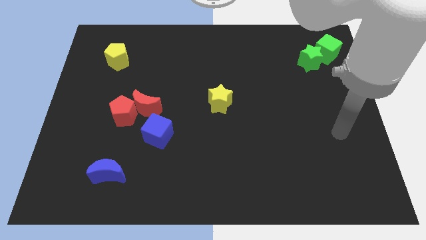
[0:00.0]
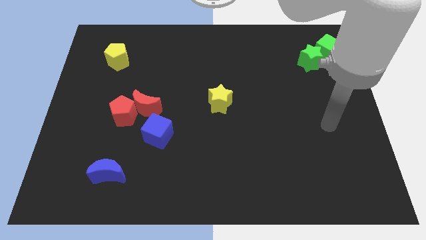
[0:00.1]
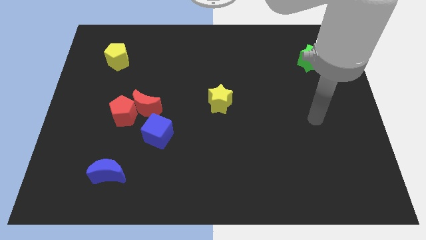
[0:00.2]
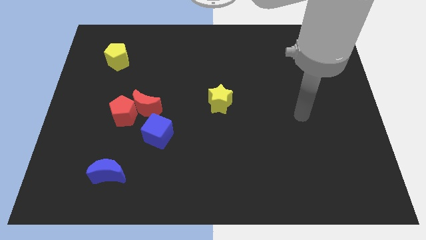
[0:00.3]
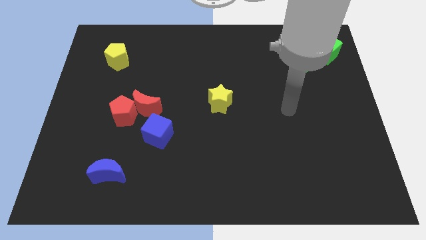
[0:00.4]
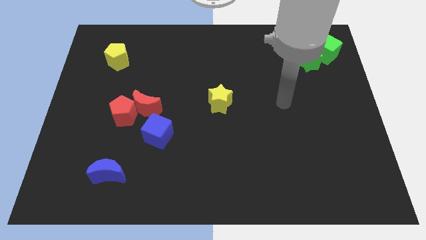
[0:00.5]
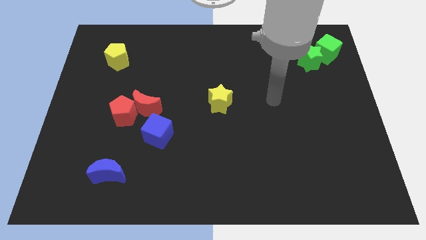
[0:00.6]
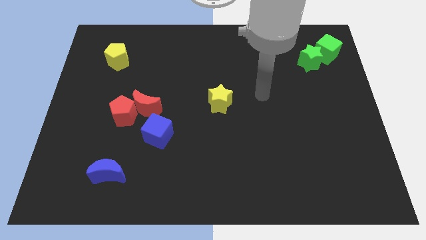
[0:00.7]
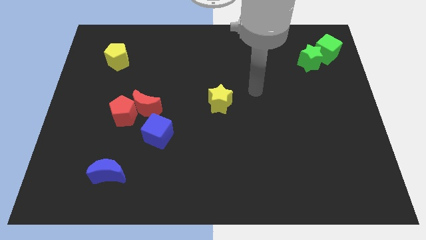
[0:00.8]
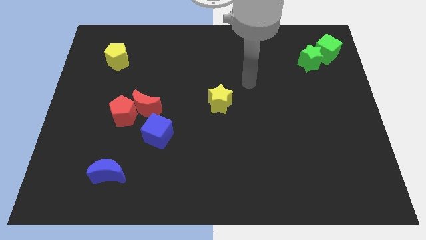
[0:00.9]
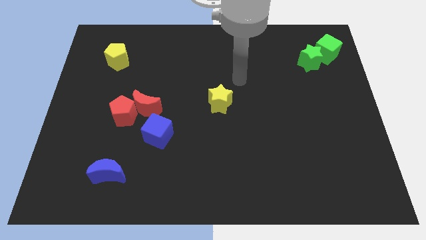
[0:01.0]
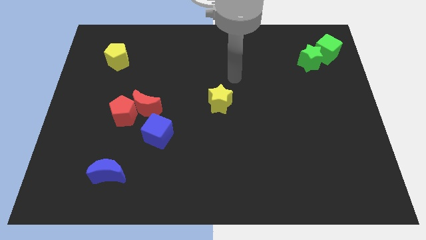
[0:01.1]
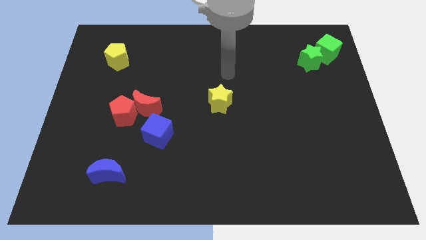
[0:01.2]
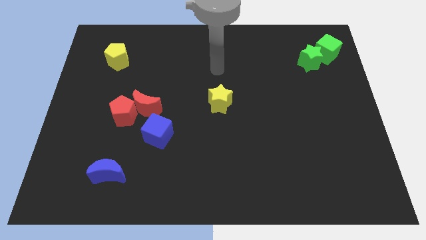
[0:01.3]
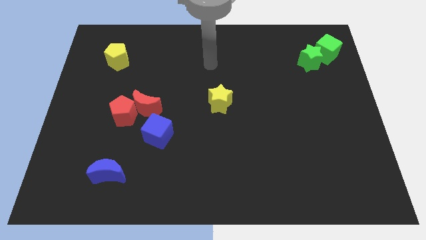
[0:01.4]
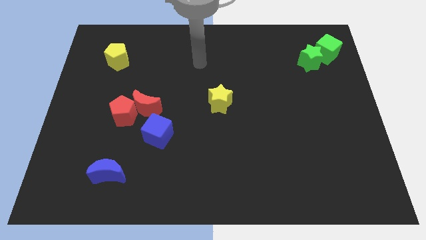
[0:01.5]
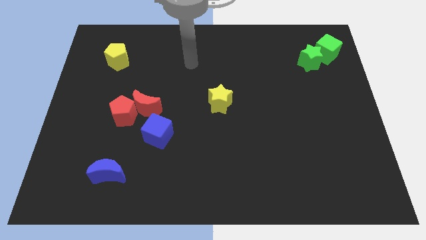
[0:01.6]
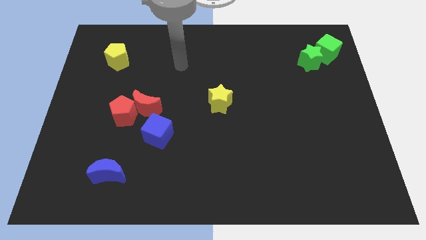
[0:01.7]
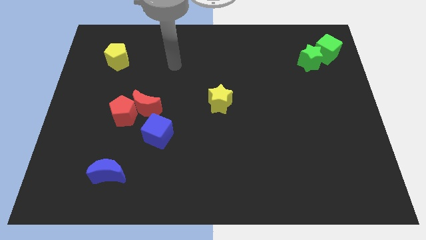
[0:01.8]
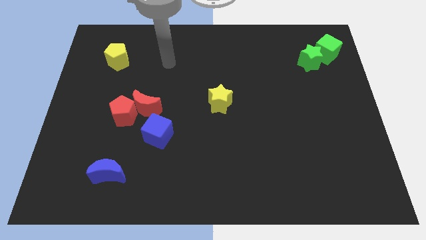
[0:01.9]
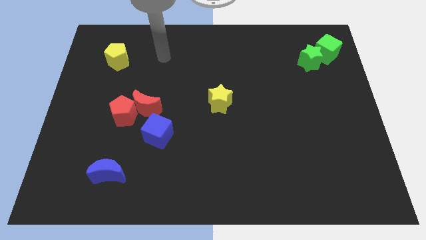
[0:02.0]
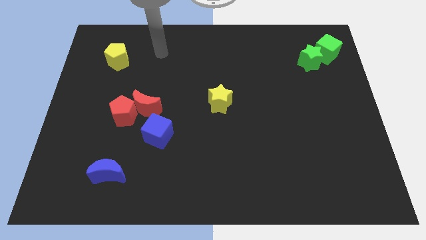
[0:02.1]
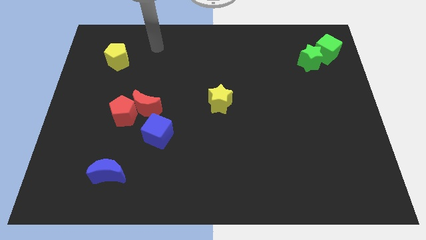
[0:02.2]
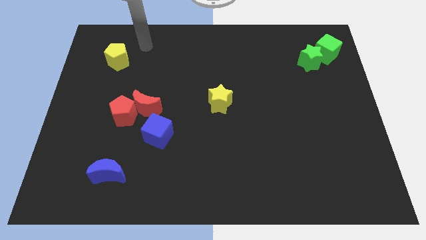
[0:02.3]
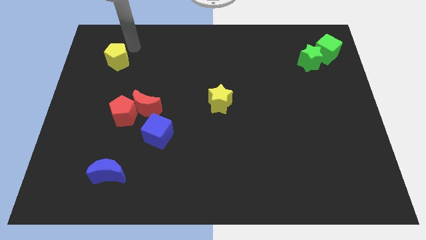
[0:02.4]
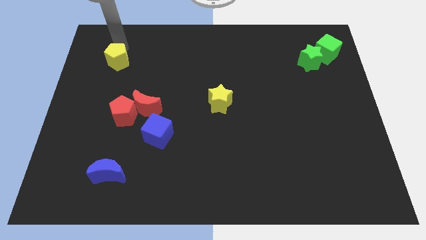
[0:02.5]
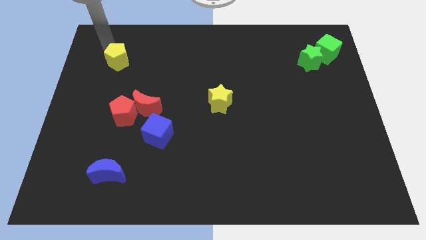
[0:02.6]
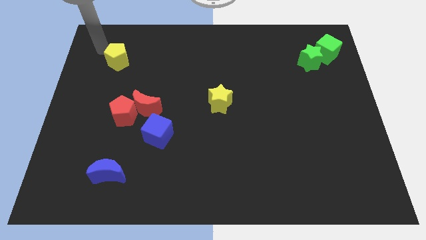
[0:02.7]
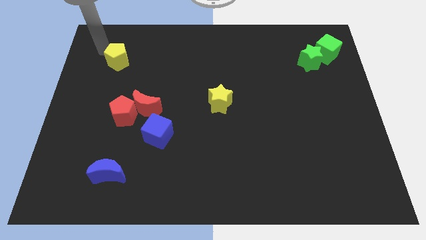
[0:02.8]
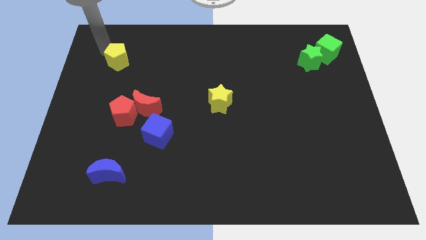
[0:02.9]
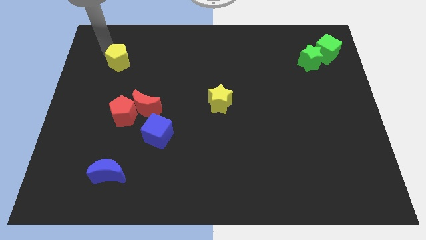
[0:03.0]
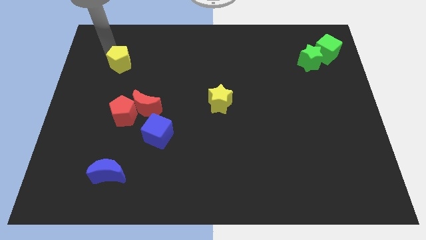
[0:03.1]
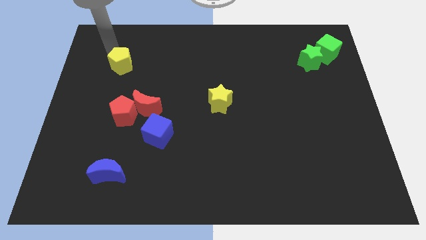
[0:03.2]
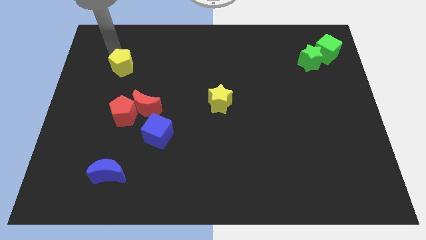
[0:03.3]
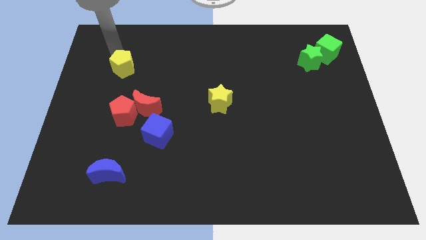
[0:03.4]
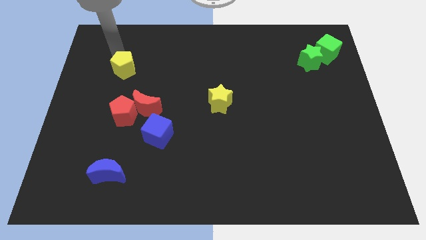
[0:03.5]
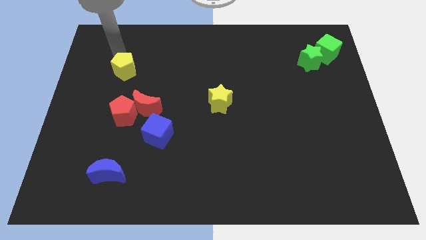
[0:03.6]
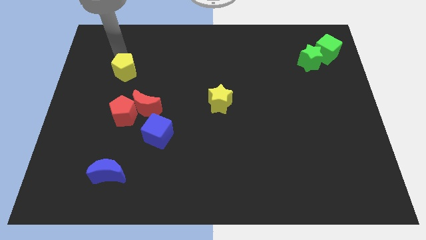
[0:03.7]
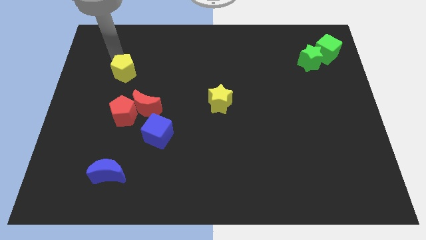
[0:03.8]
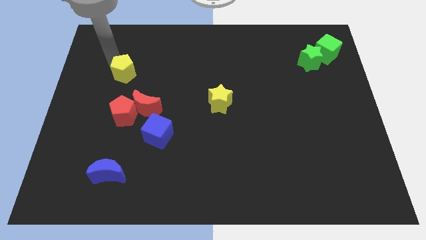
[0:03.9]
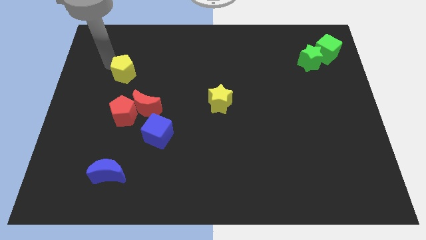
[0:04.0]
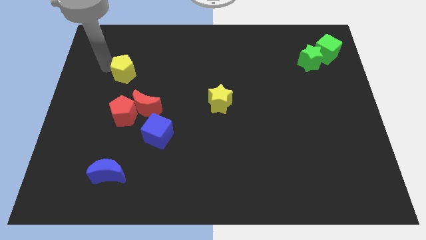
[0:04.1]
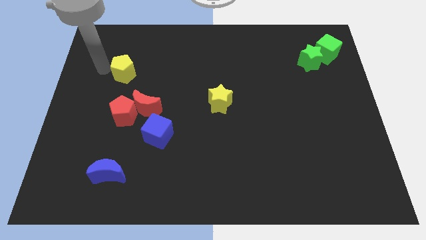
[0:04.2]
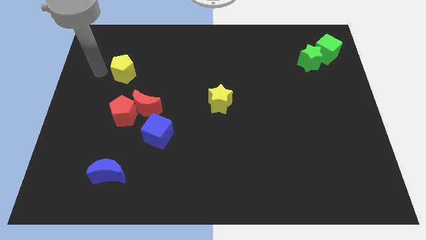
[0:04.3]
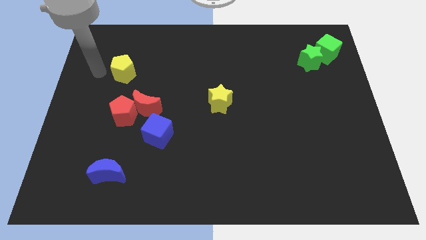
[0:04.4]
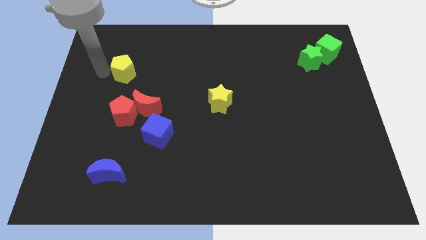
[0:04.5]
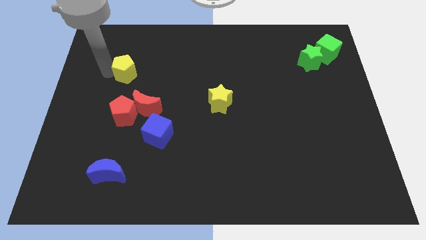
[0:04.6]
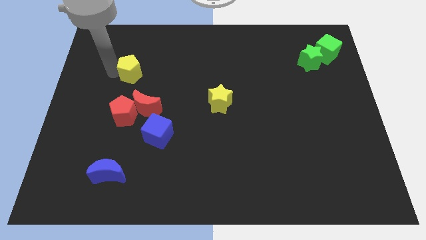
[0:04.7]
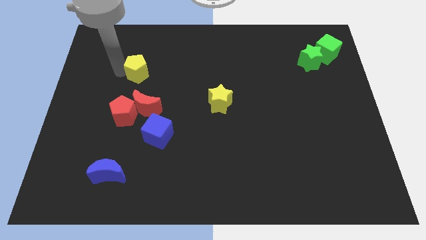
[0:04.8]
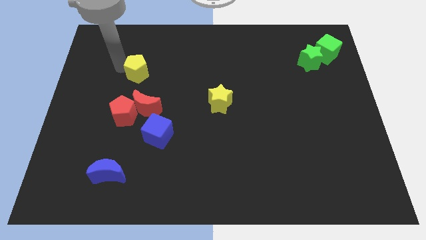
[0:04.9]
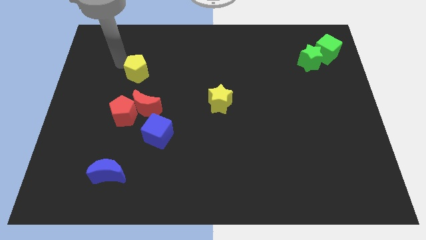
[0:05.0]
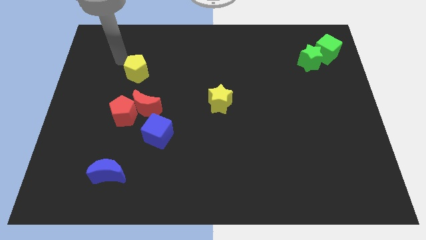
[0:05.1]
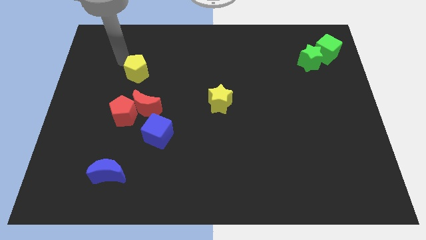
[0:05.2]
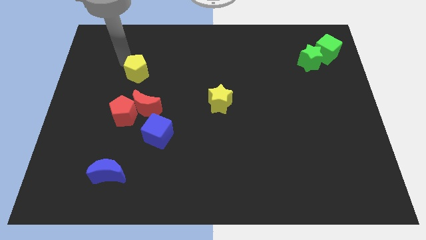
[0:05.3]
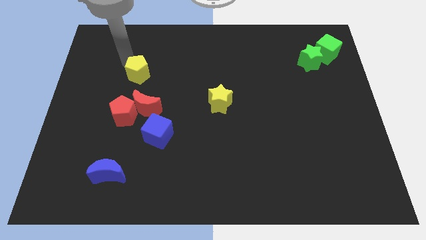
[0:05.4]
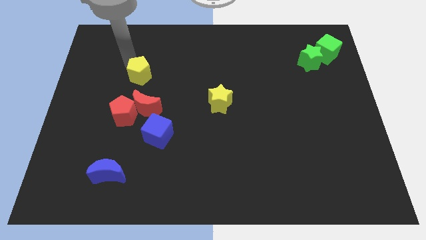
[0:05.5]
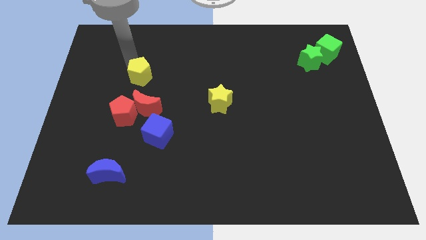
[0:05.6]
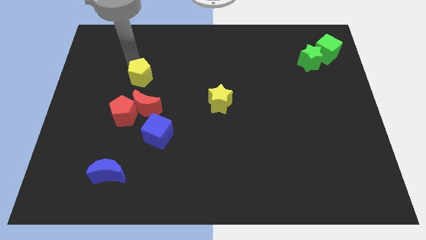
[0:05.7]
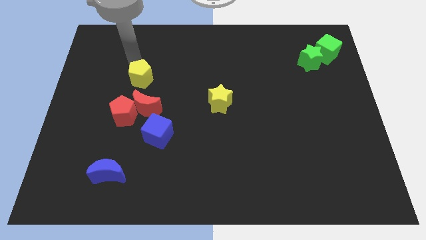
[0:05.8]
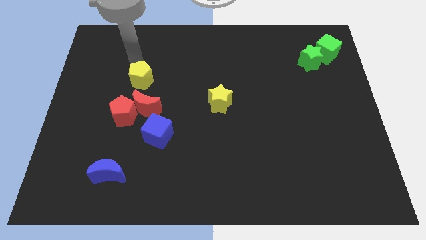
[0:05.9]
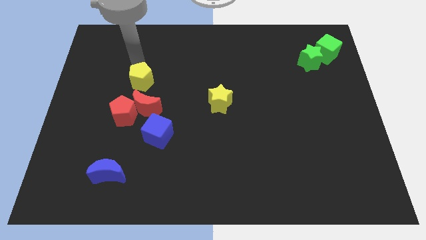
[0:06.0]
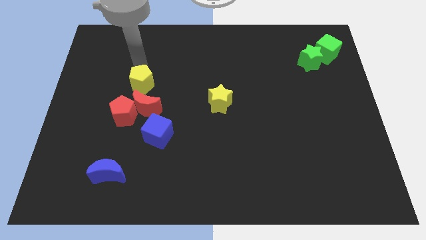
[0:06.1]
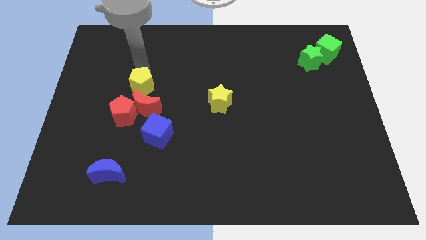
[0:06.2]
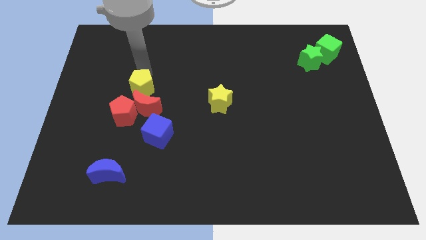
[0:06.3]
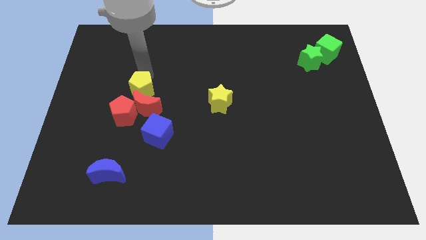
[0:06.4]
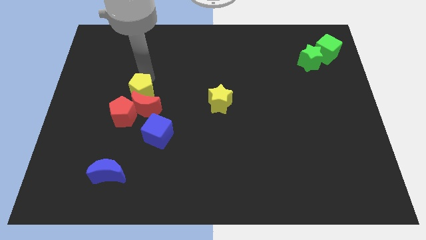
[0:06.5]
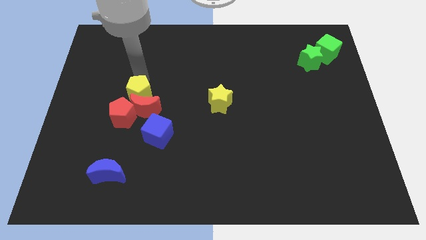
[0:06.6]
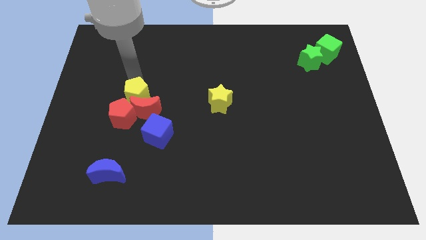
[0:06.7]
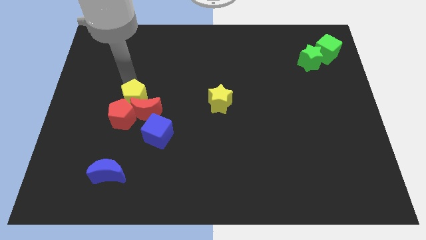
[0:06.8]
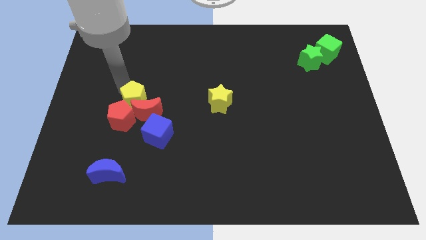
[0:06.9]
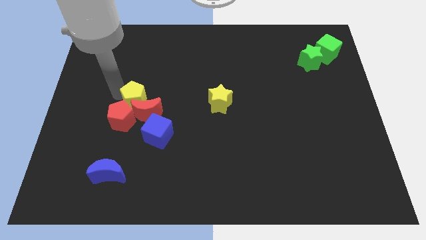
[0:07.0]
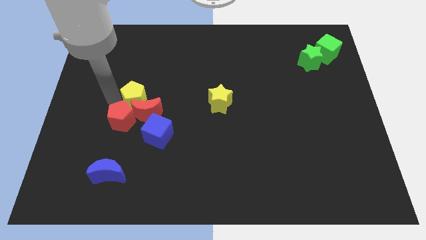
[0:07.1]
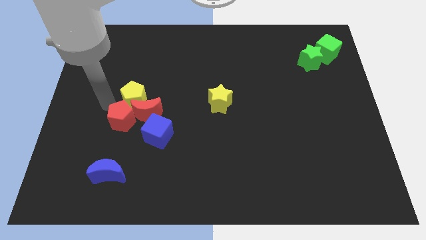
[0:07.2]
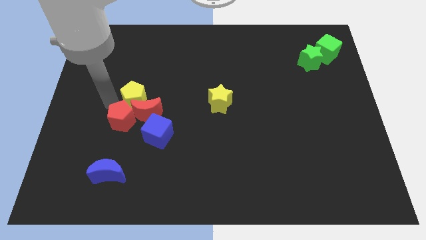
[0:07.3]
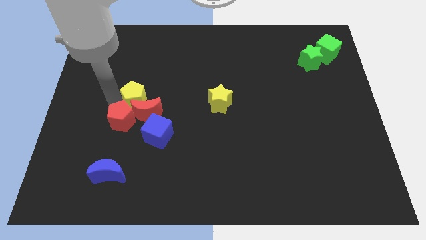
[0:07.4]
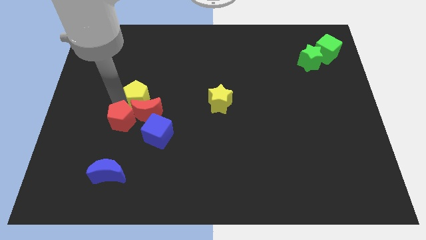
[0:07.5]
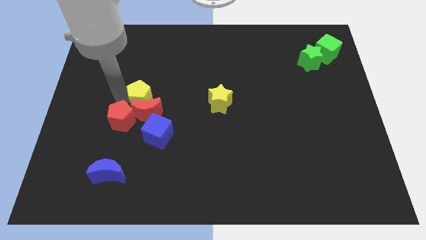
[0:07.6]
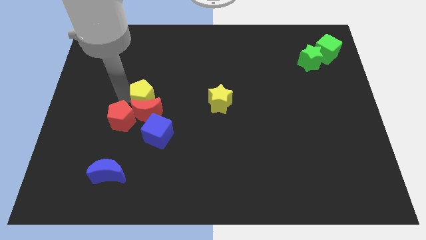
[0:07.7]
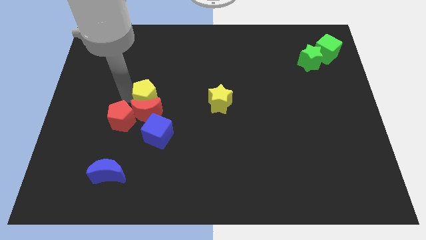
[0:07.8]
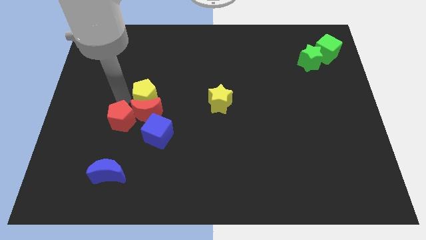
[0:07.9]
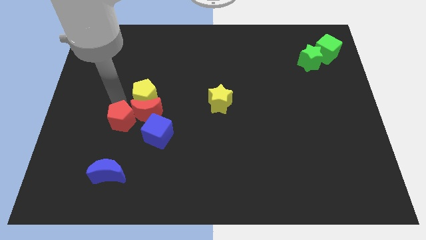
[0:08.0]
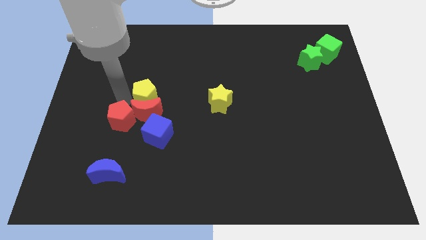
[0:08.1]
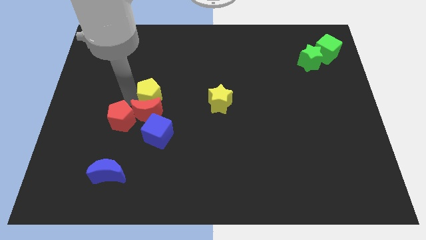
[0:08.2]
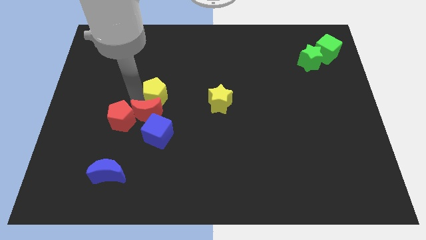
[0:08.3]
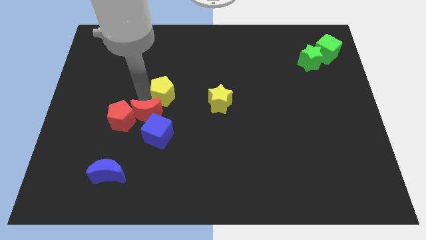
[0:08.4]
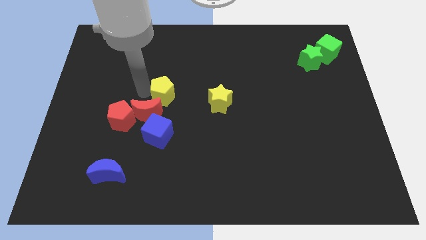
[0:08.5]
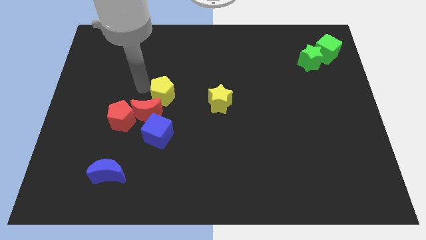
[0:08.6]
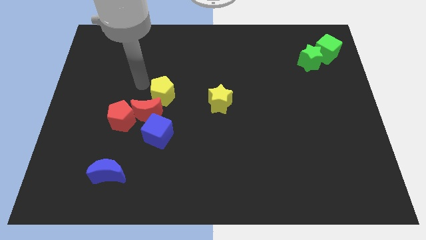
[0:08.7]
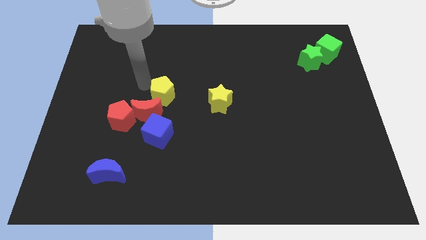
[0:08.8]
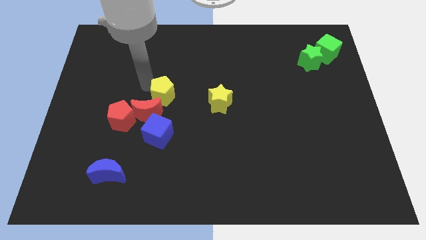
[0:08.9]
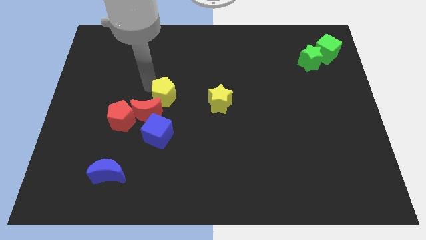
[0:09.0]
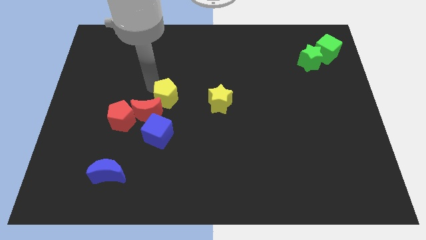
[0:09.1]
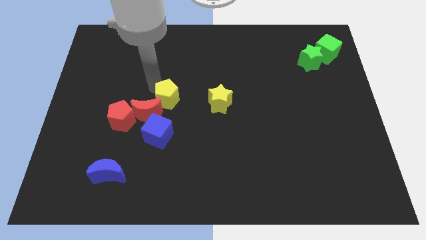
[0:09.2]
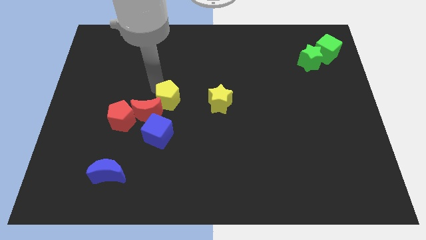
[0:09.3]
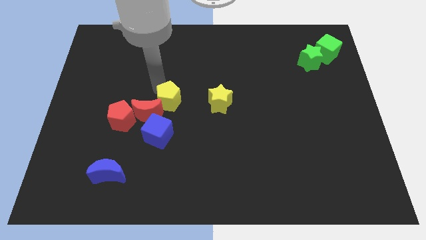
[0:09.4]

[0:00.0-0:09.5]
slide the yellow pentagon diagonally down and right
